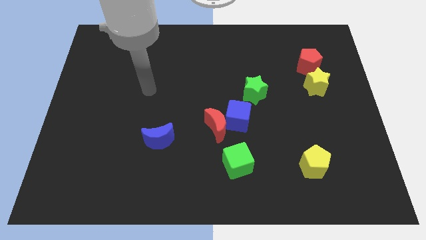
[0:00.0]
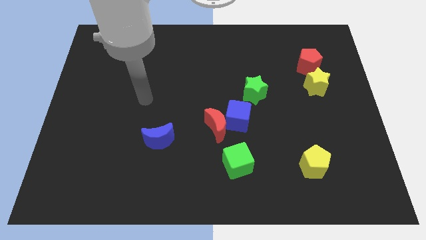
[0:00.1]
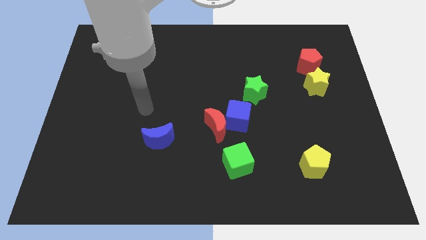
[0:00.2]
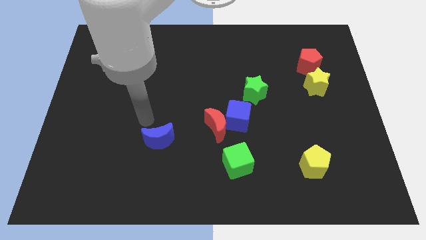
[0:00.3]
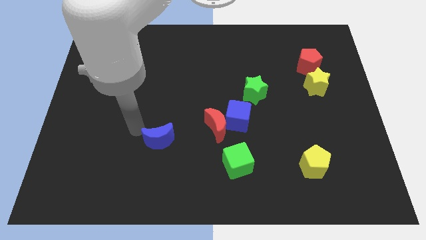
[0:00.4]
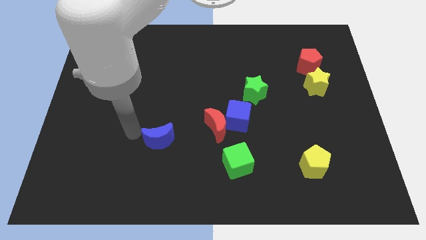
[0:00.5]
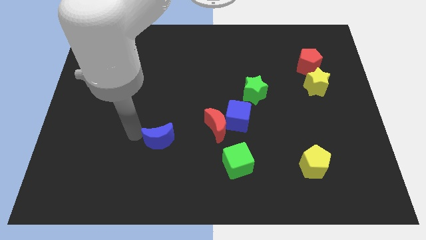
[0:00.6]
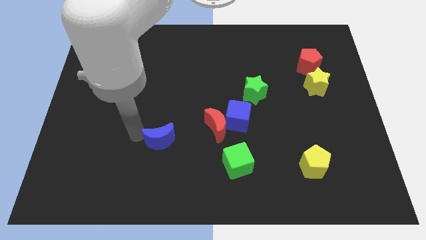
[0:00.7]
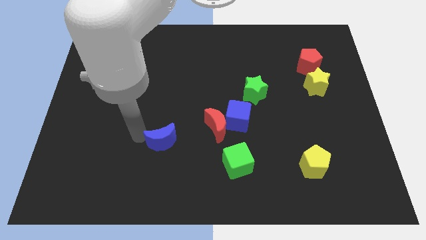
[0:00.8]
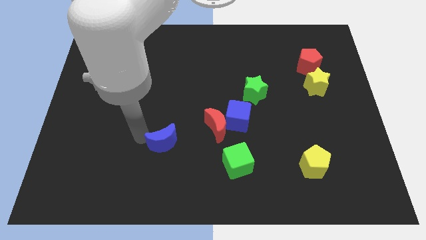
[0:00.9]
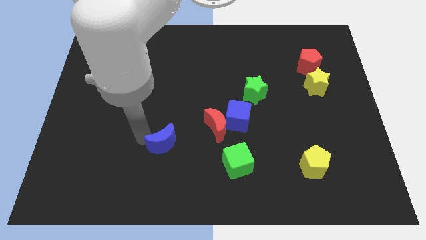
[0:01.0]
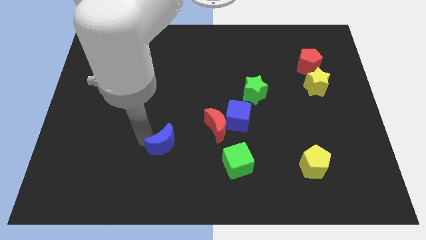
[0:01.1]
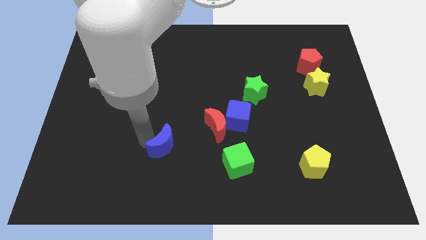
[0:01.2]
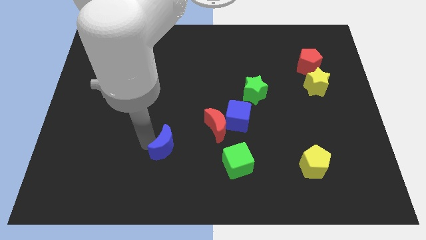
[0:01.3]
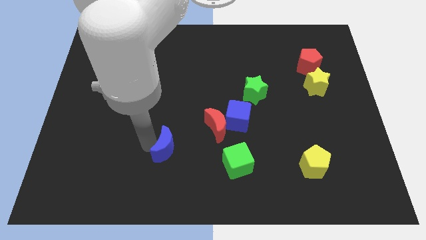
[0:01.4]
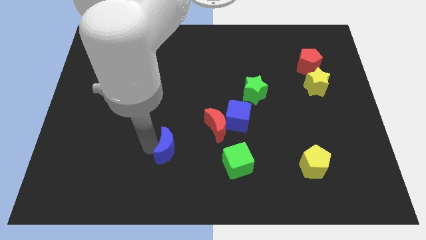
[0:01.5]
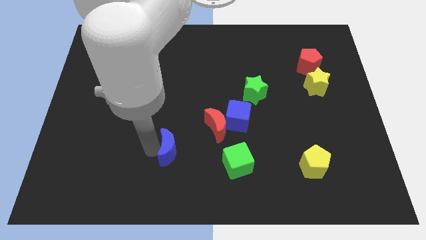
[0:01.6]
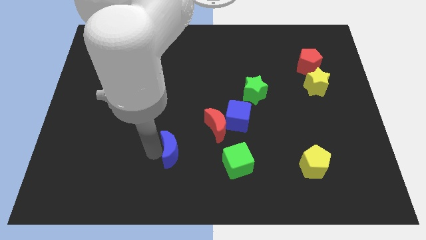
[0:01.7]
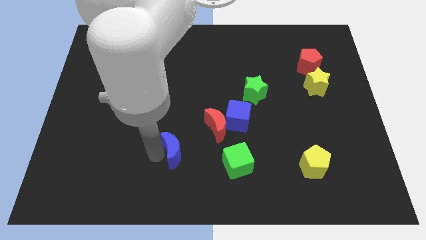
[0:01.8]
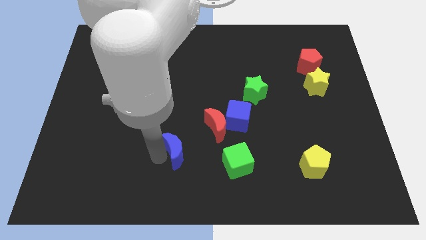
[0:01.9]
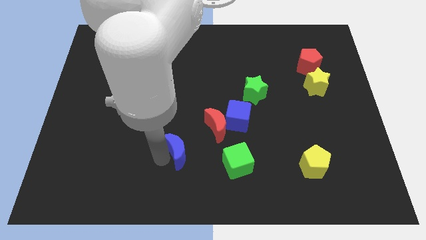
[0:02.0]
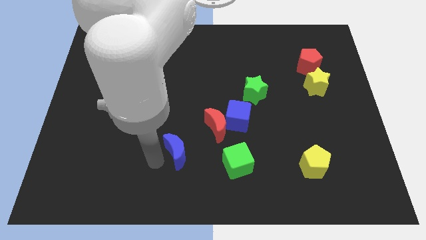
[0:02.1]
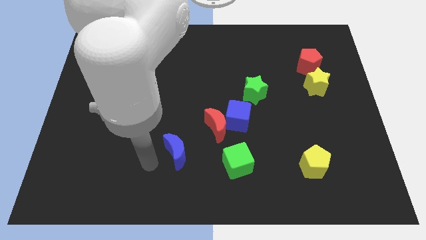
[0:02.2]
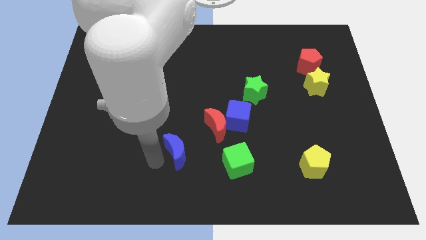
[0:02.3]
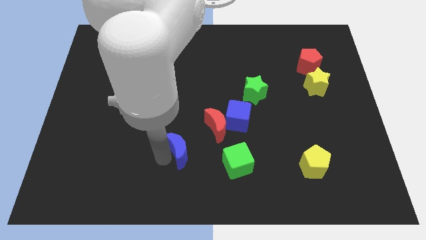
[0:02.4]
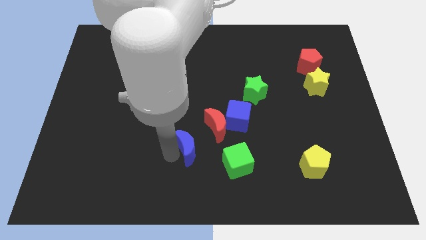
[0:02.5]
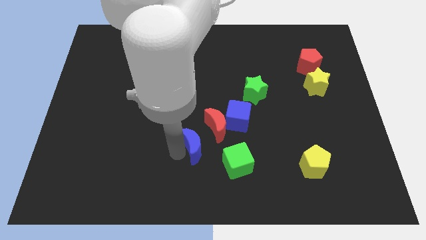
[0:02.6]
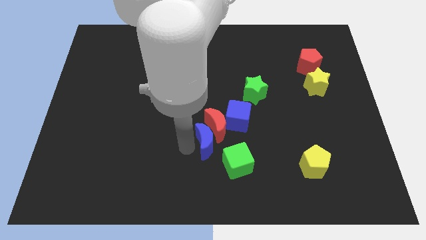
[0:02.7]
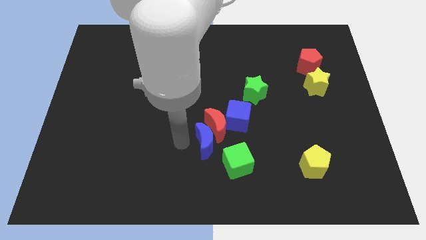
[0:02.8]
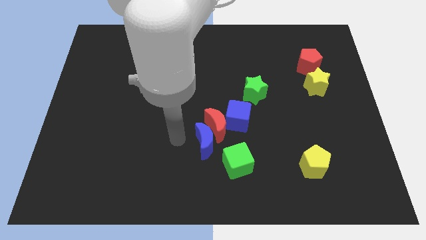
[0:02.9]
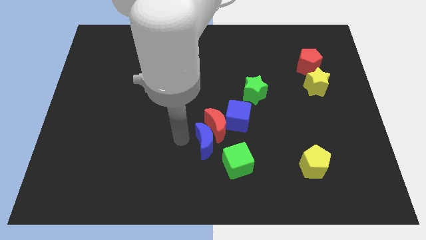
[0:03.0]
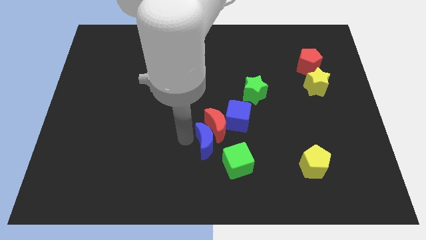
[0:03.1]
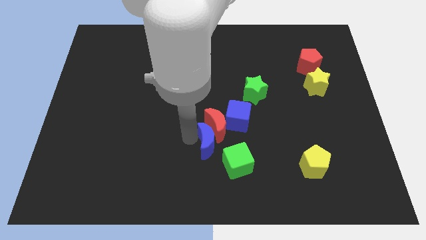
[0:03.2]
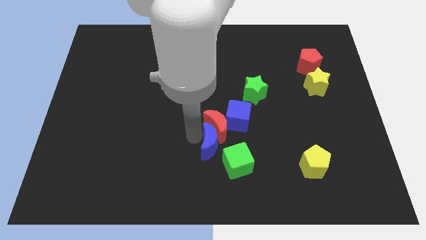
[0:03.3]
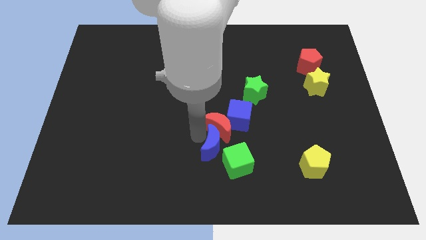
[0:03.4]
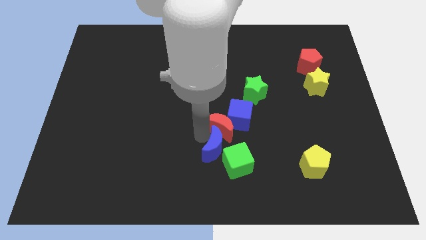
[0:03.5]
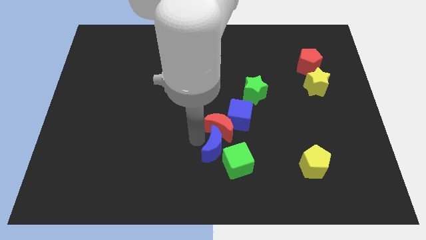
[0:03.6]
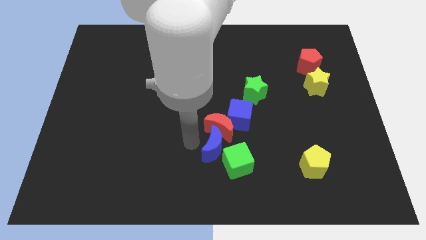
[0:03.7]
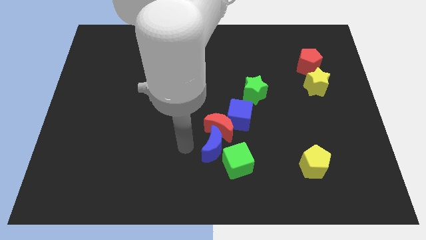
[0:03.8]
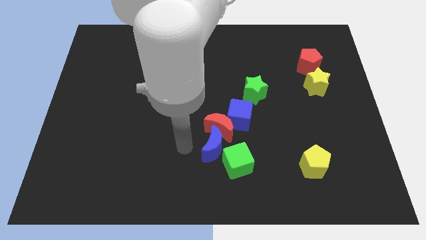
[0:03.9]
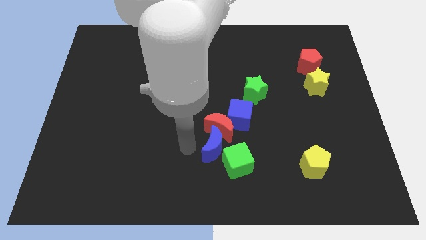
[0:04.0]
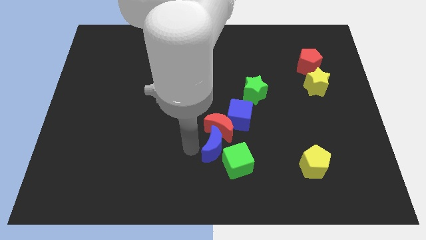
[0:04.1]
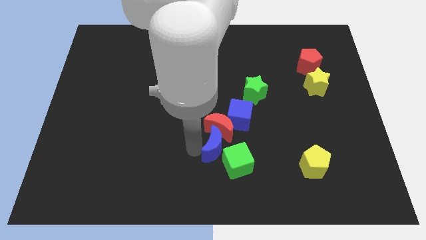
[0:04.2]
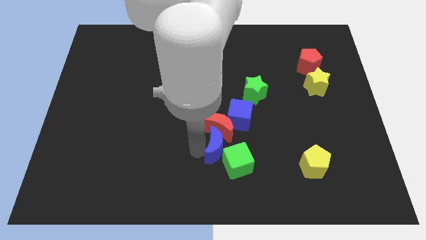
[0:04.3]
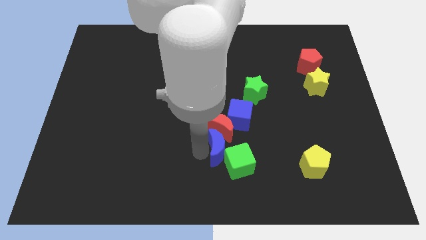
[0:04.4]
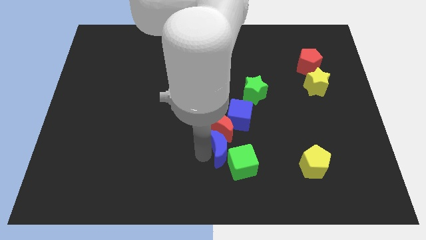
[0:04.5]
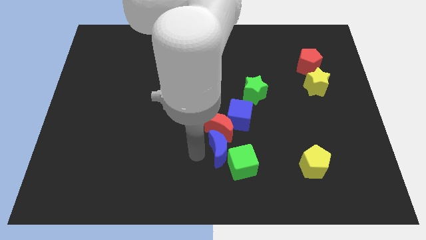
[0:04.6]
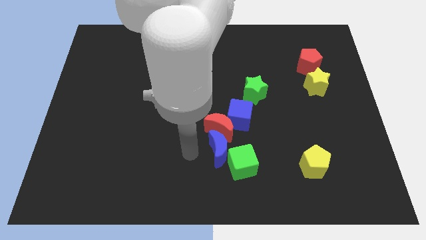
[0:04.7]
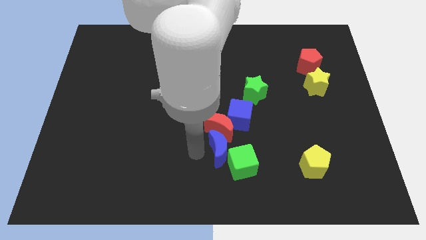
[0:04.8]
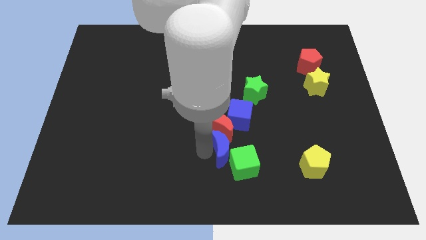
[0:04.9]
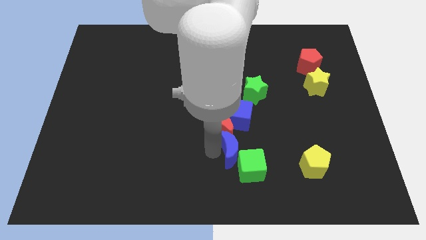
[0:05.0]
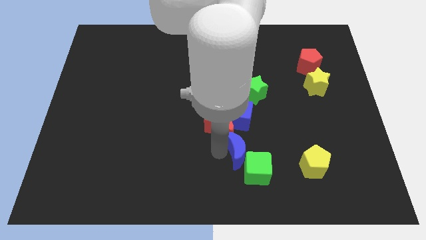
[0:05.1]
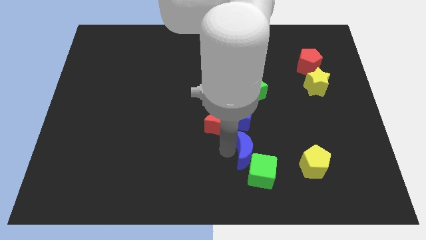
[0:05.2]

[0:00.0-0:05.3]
put the blue moon just left of the yellow pentagon

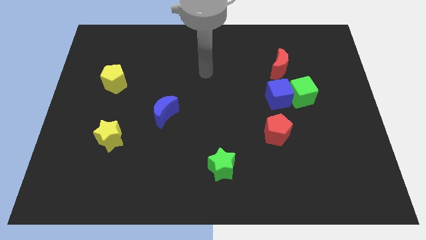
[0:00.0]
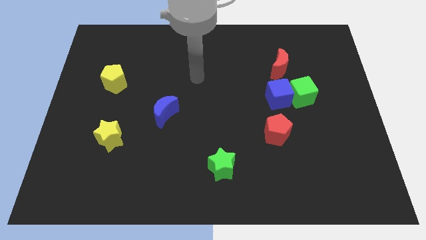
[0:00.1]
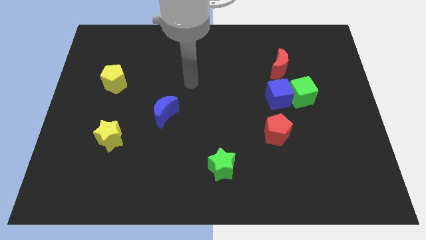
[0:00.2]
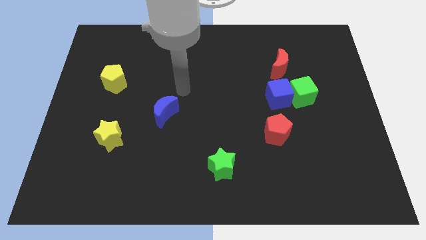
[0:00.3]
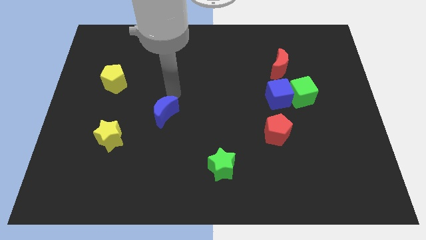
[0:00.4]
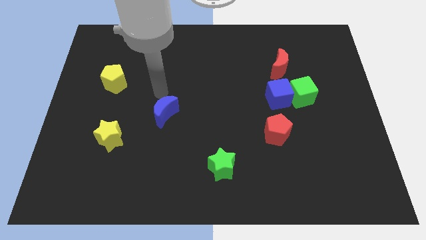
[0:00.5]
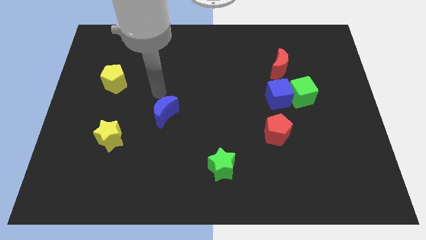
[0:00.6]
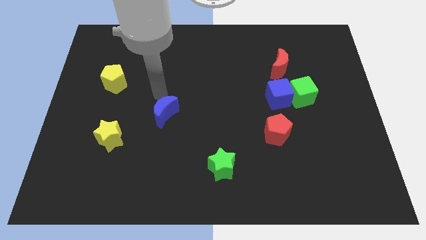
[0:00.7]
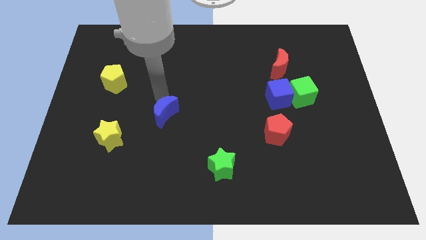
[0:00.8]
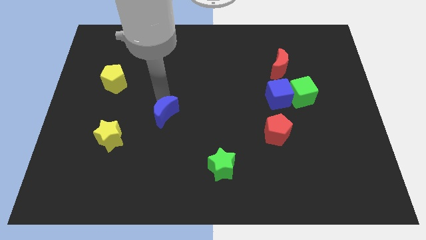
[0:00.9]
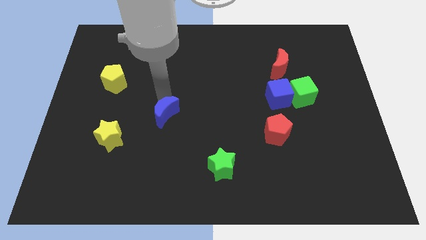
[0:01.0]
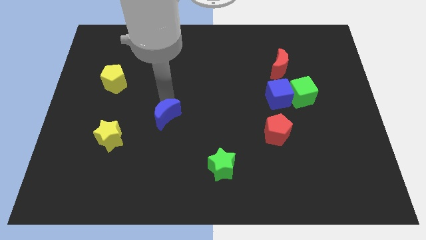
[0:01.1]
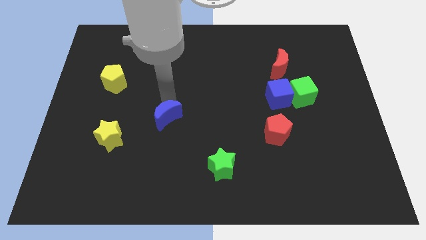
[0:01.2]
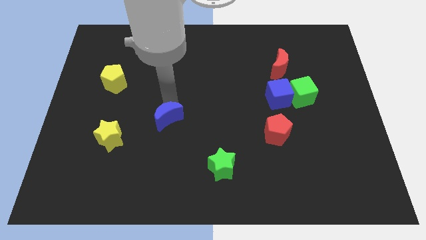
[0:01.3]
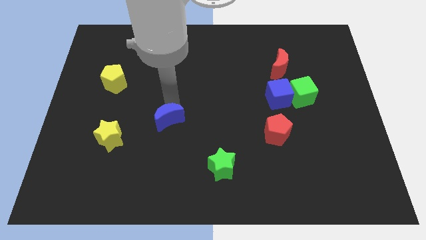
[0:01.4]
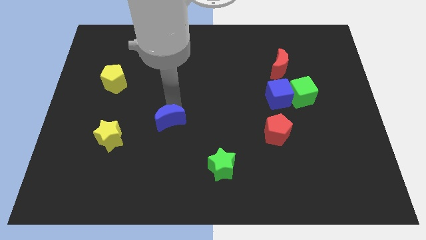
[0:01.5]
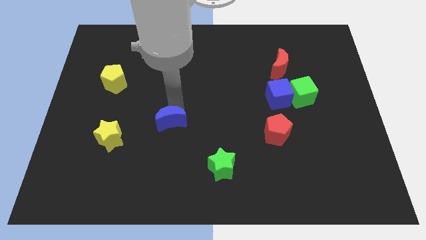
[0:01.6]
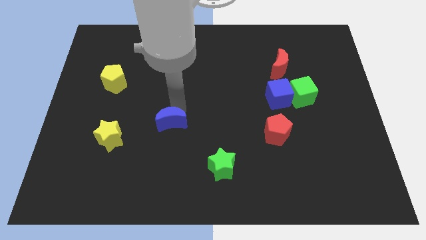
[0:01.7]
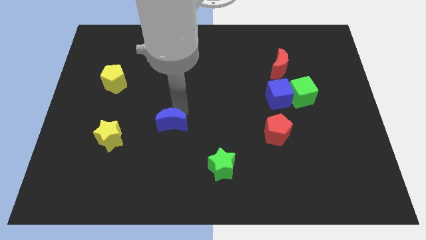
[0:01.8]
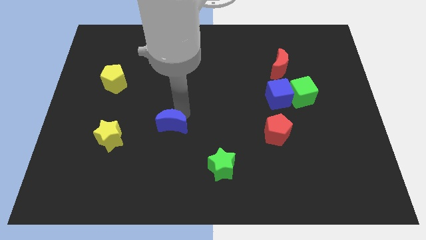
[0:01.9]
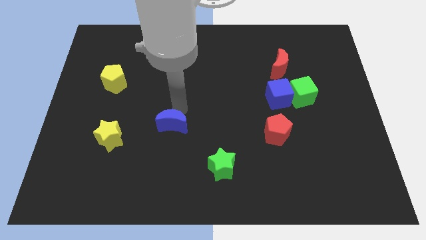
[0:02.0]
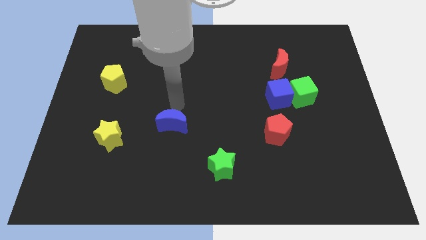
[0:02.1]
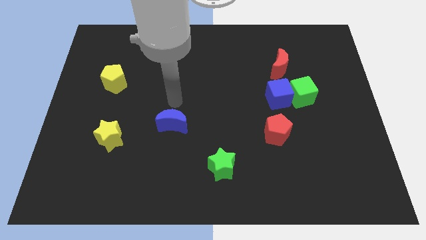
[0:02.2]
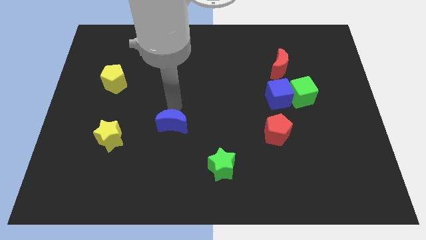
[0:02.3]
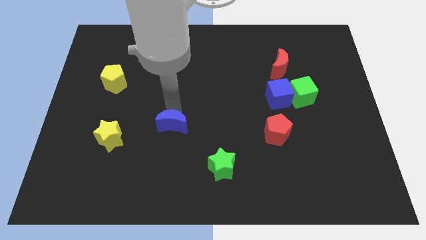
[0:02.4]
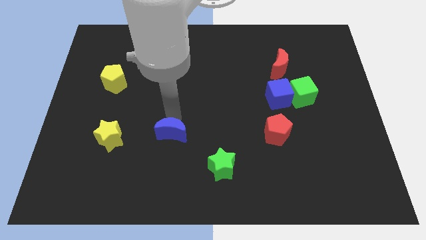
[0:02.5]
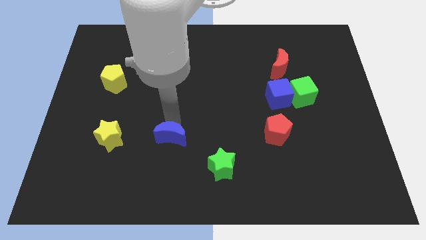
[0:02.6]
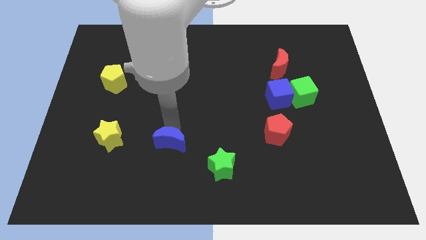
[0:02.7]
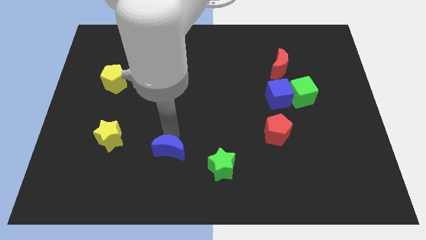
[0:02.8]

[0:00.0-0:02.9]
move the blue moon to the left of the green star
